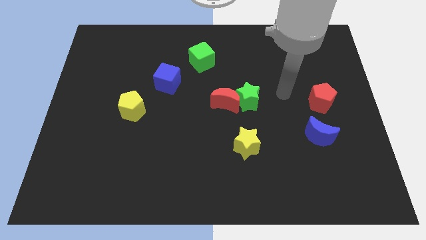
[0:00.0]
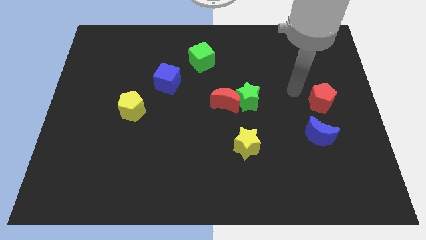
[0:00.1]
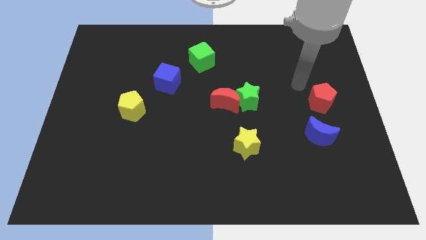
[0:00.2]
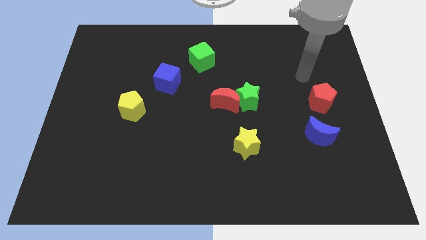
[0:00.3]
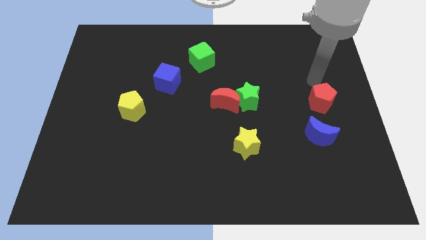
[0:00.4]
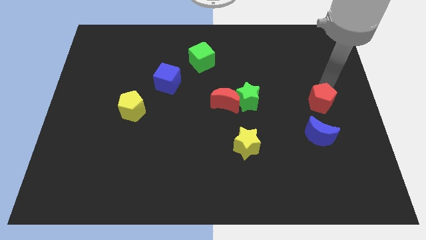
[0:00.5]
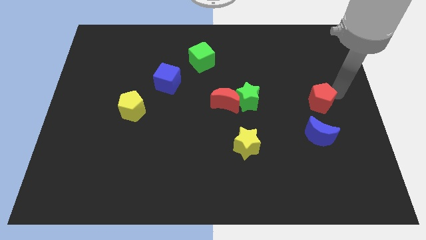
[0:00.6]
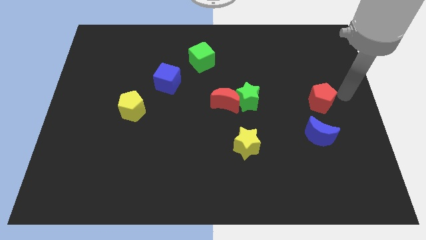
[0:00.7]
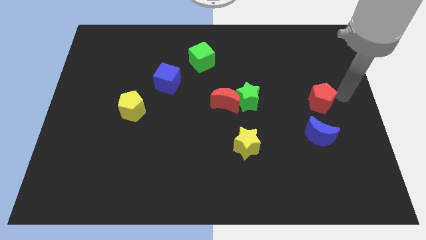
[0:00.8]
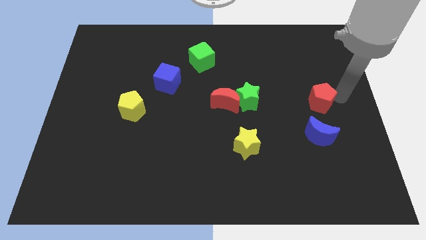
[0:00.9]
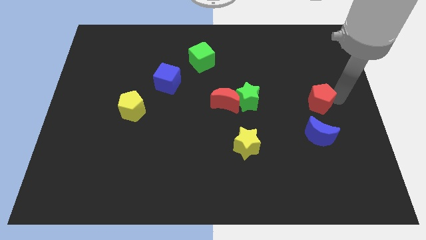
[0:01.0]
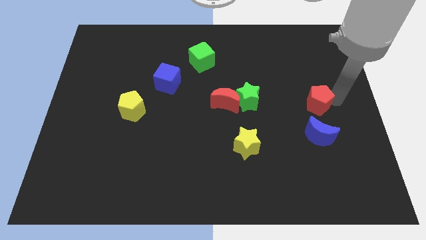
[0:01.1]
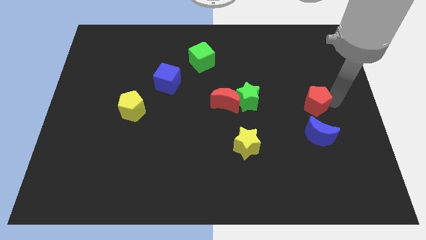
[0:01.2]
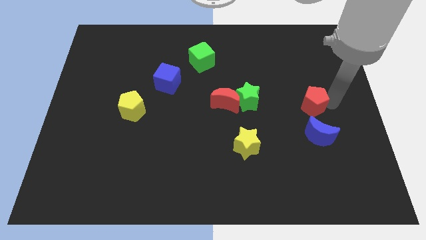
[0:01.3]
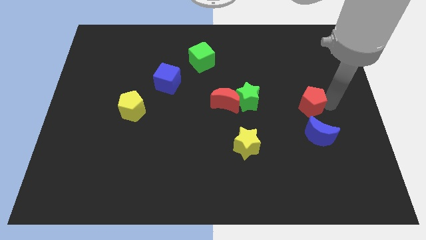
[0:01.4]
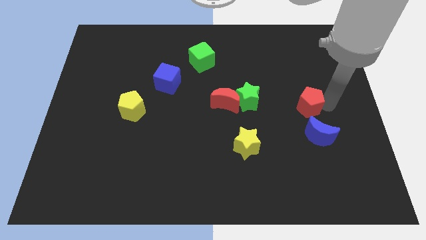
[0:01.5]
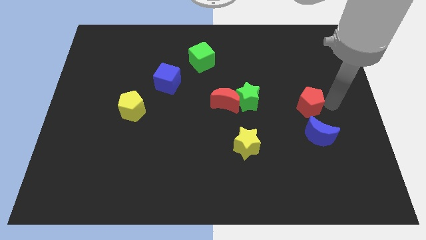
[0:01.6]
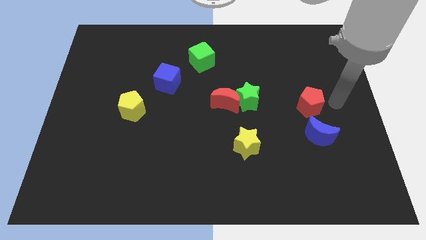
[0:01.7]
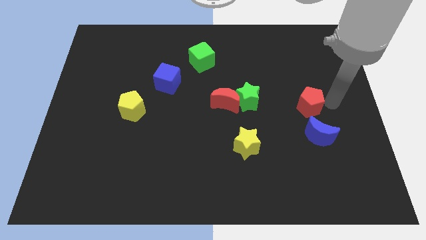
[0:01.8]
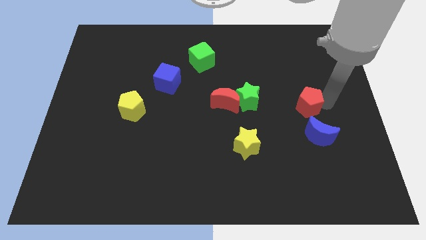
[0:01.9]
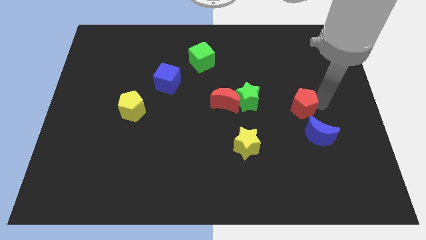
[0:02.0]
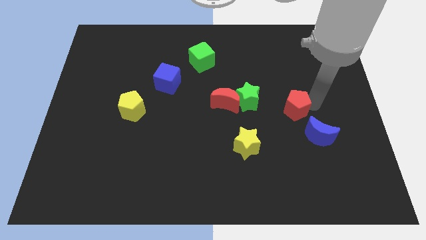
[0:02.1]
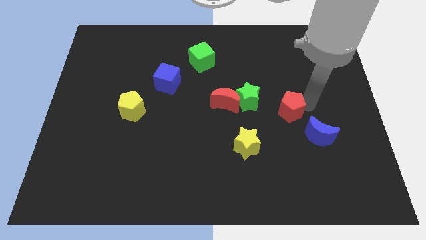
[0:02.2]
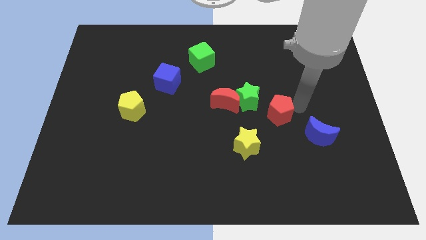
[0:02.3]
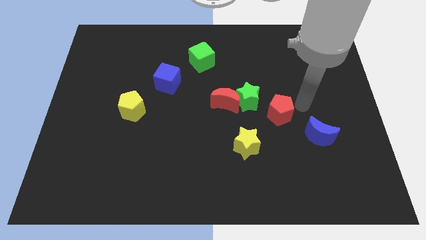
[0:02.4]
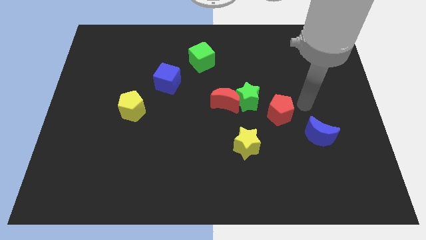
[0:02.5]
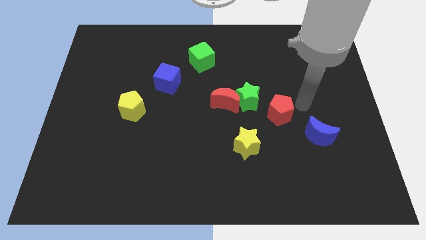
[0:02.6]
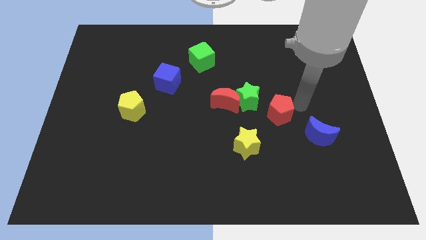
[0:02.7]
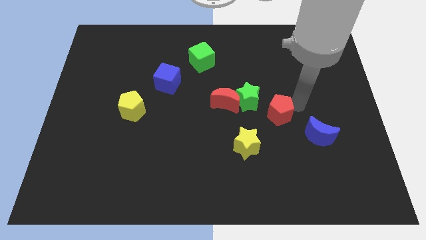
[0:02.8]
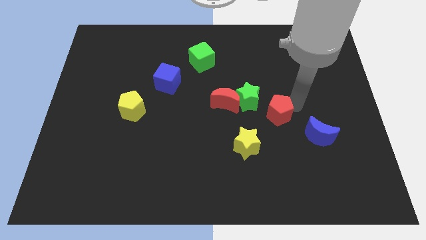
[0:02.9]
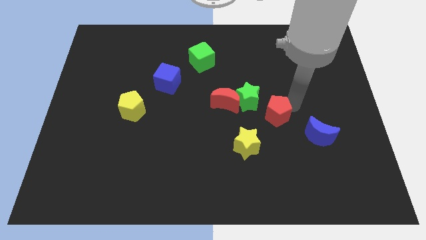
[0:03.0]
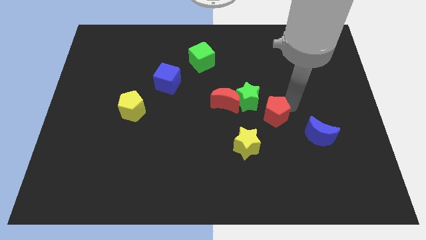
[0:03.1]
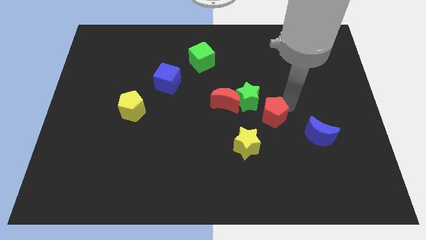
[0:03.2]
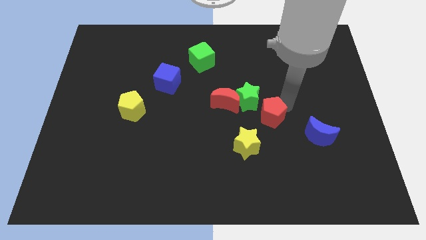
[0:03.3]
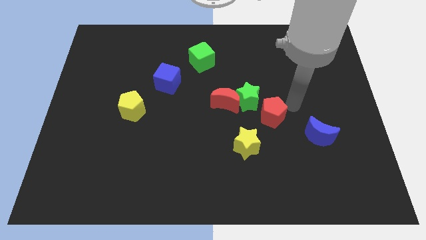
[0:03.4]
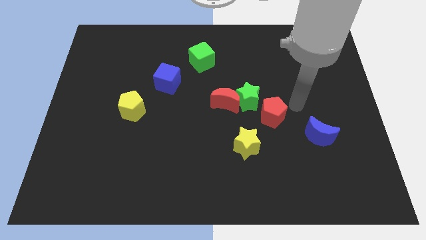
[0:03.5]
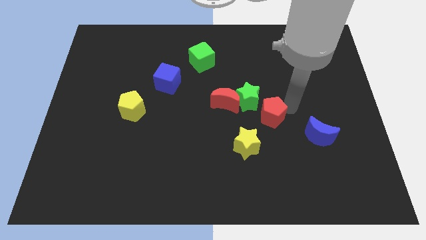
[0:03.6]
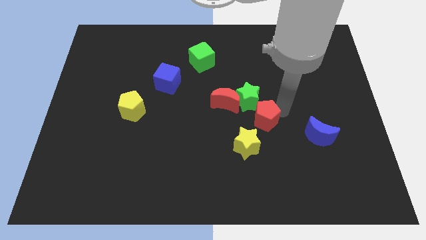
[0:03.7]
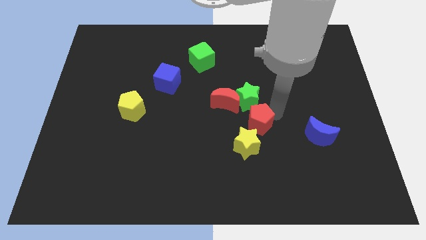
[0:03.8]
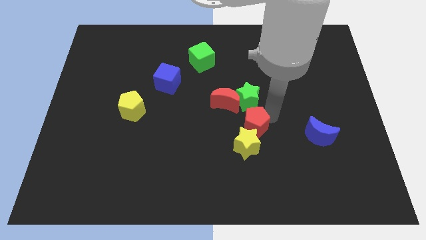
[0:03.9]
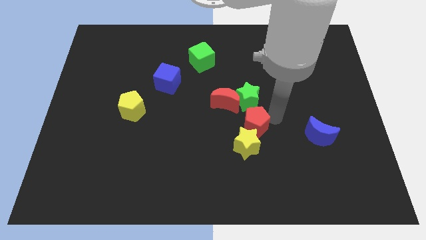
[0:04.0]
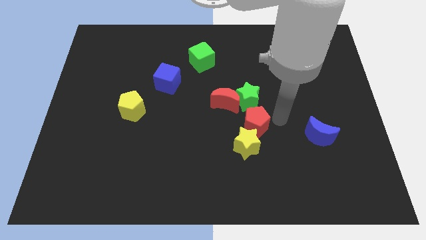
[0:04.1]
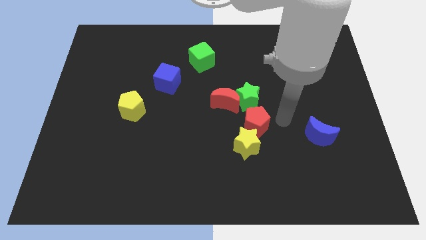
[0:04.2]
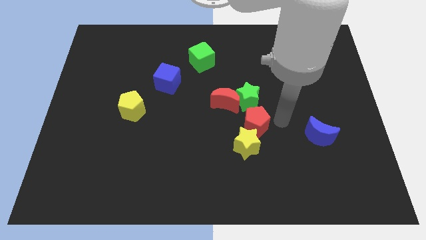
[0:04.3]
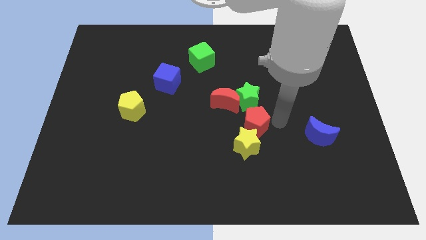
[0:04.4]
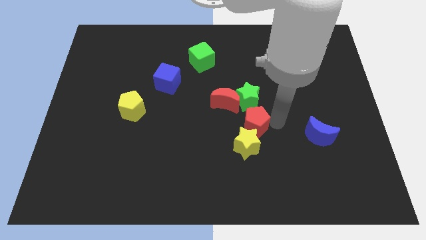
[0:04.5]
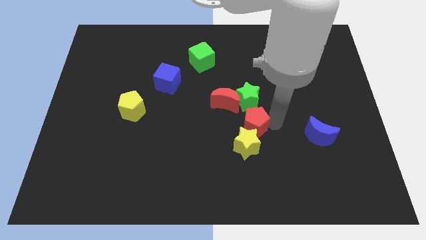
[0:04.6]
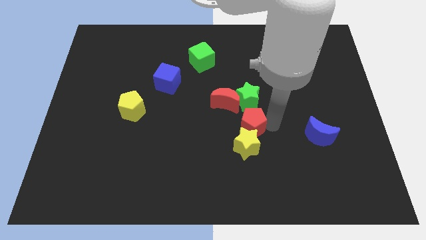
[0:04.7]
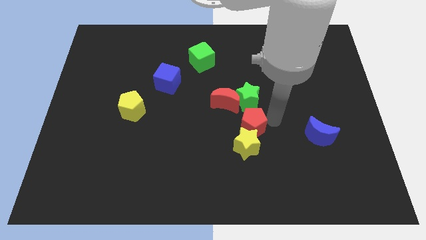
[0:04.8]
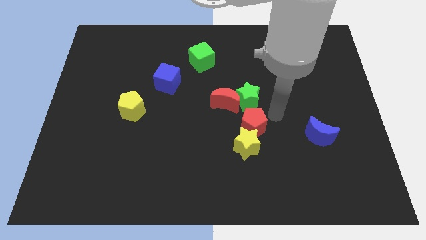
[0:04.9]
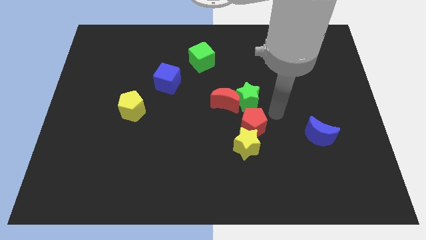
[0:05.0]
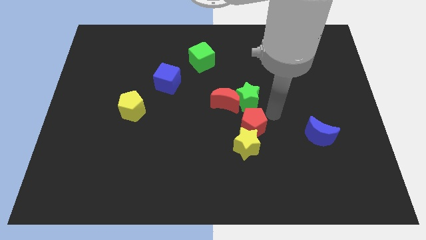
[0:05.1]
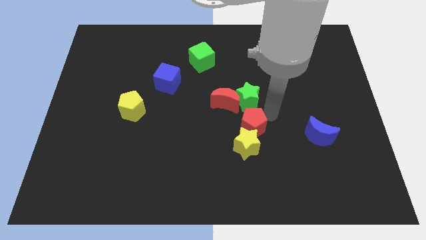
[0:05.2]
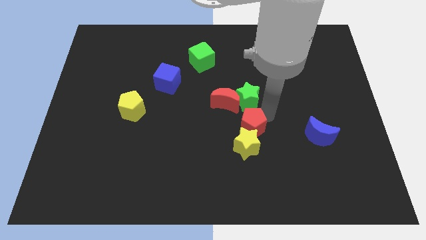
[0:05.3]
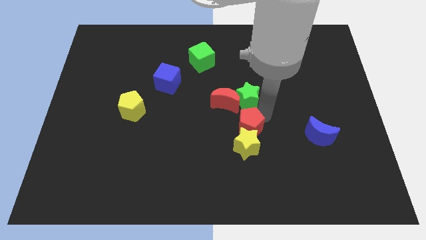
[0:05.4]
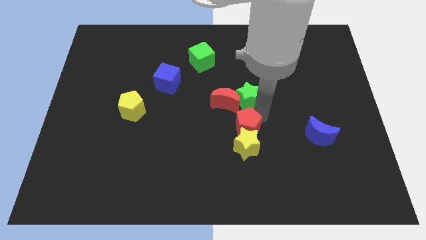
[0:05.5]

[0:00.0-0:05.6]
push the red pentagon to the bottom side of the red moon

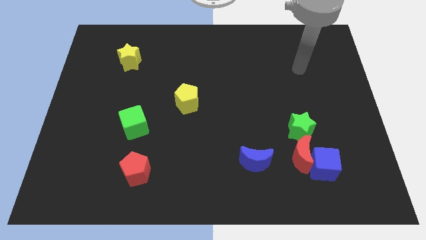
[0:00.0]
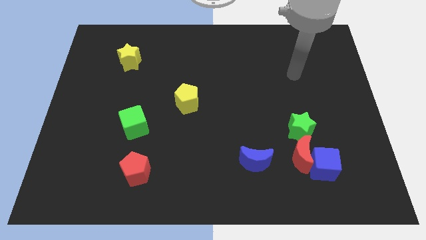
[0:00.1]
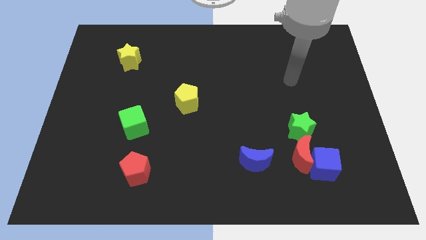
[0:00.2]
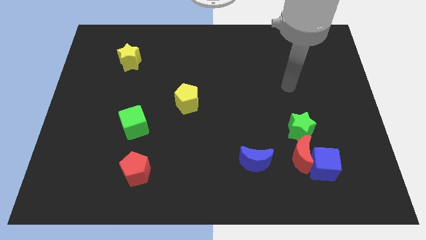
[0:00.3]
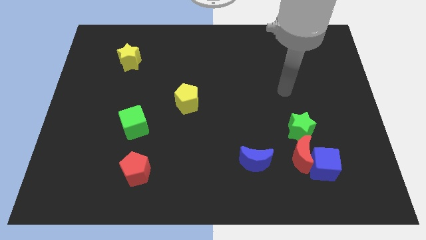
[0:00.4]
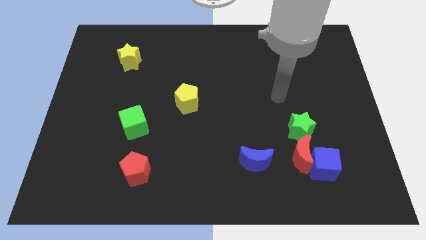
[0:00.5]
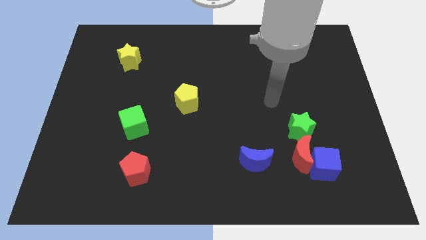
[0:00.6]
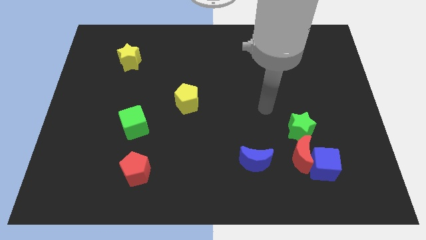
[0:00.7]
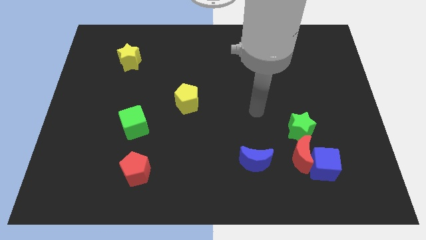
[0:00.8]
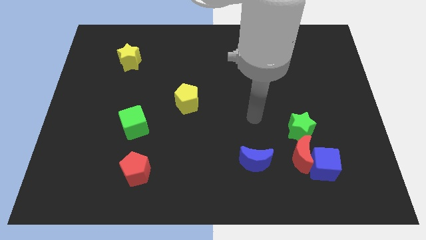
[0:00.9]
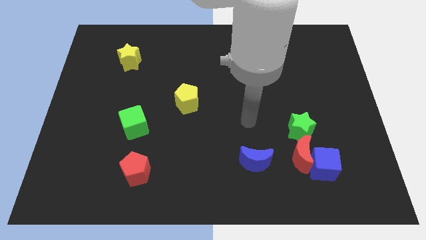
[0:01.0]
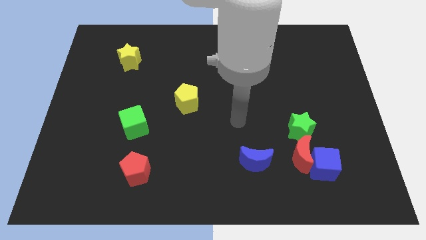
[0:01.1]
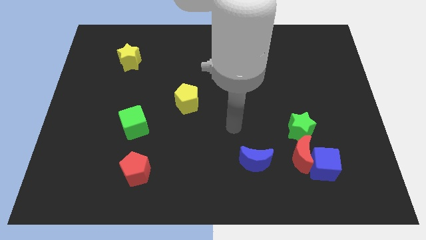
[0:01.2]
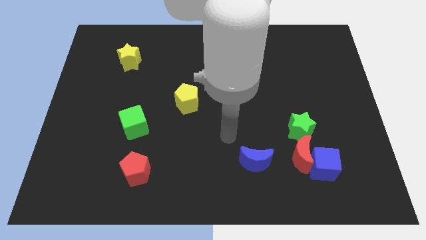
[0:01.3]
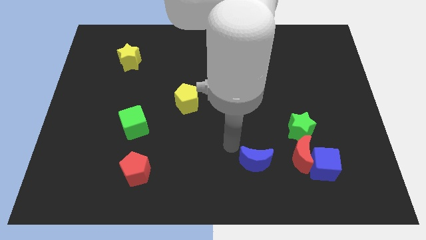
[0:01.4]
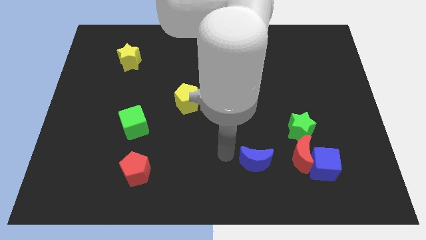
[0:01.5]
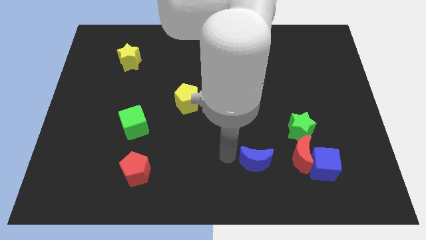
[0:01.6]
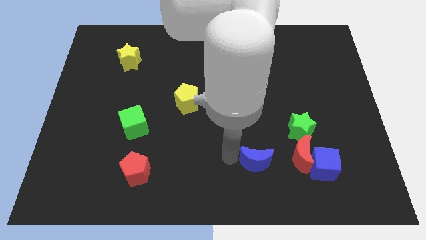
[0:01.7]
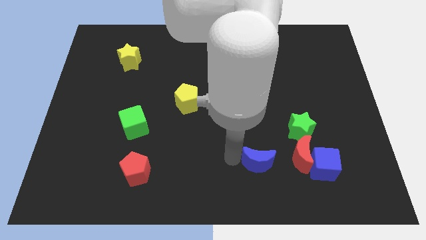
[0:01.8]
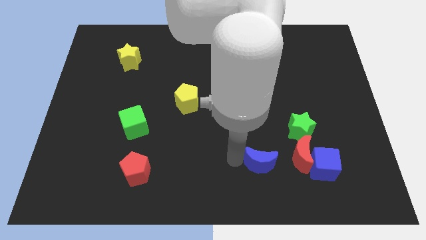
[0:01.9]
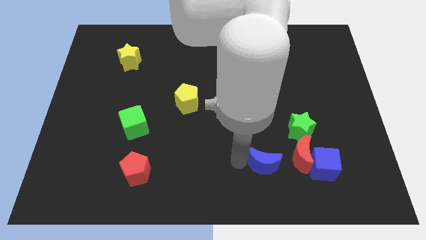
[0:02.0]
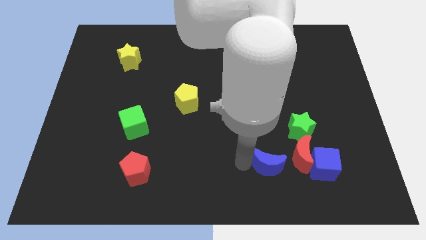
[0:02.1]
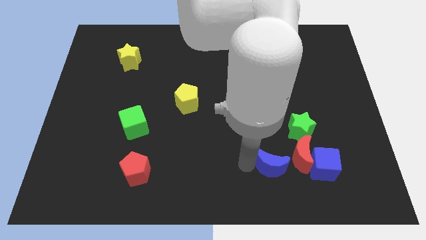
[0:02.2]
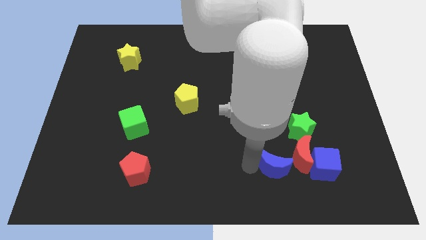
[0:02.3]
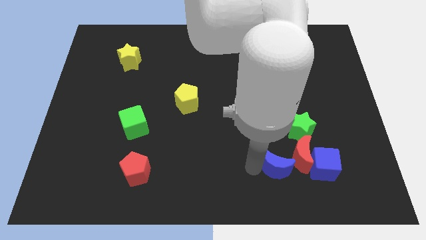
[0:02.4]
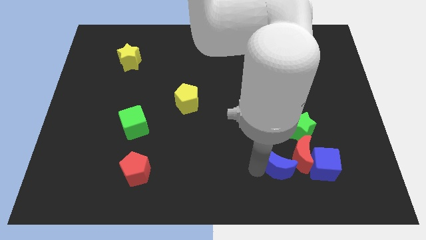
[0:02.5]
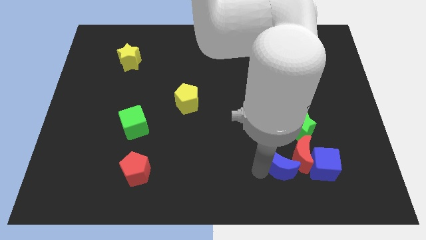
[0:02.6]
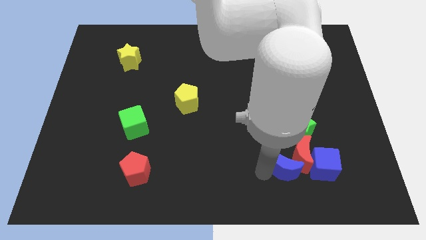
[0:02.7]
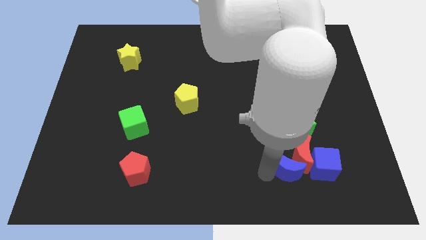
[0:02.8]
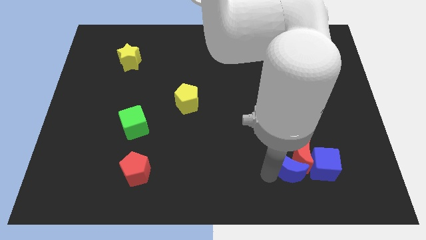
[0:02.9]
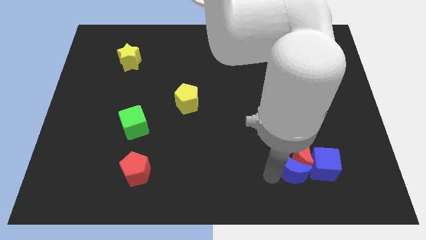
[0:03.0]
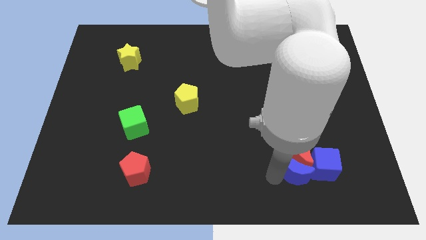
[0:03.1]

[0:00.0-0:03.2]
slide the blue moon to the bottom right side of the red moon
